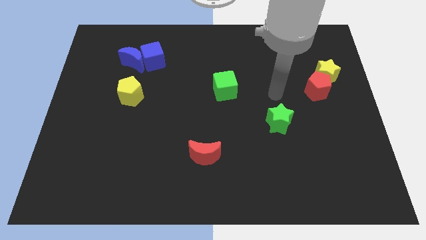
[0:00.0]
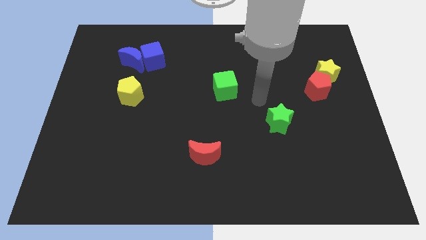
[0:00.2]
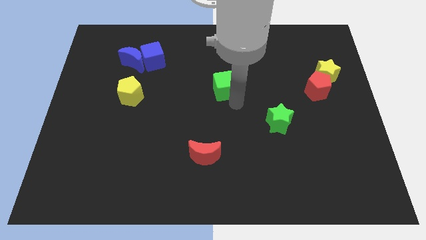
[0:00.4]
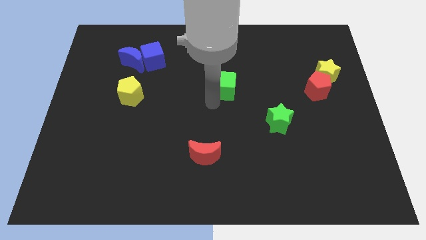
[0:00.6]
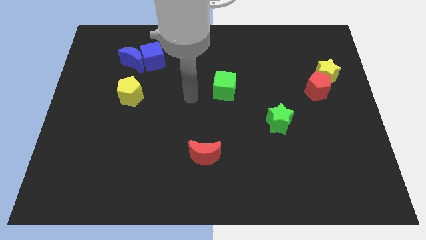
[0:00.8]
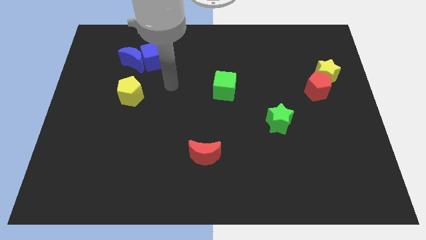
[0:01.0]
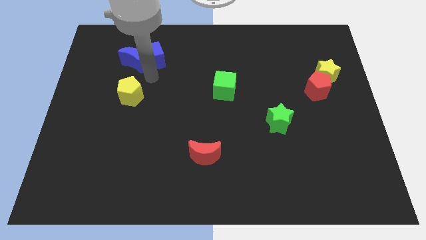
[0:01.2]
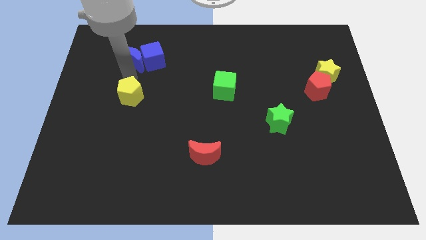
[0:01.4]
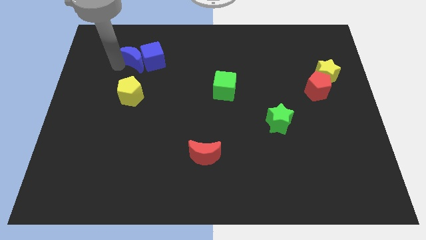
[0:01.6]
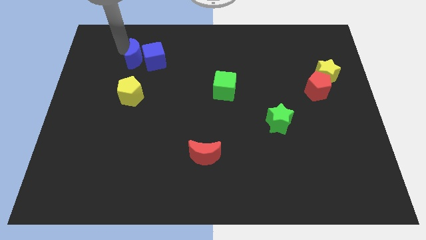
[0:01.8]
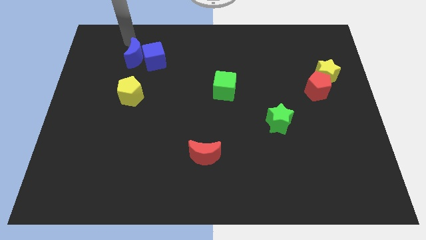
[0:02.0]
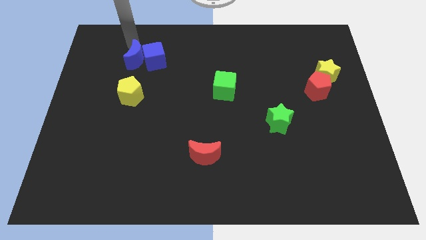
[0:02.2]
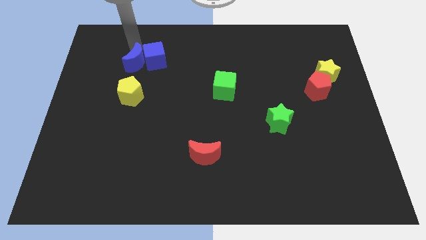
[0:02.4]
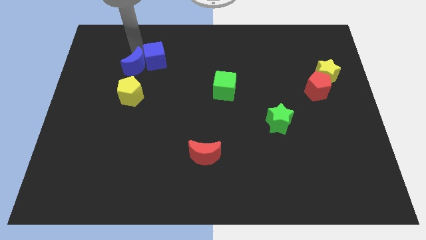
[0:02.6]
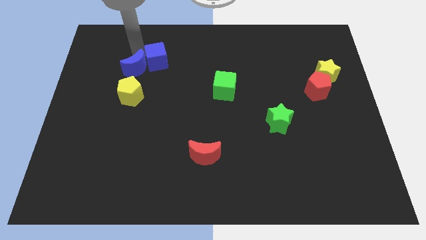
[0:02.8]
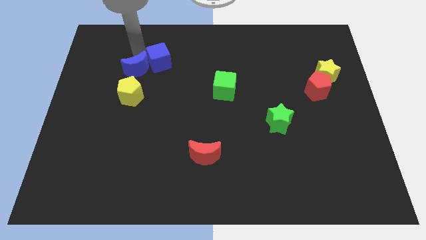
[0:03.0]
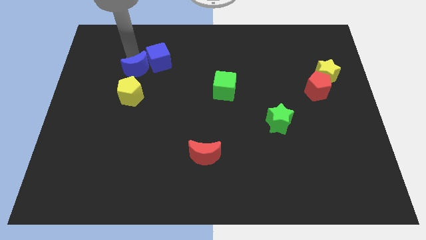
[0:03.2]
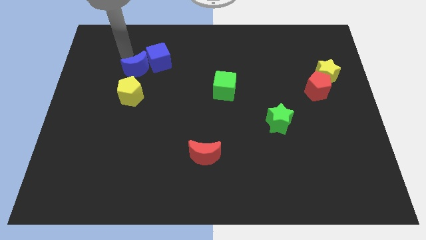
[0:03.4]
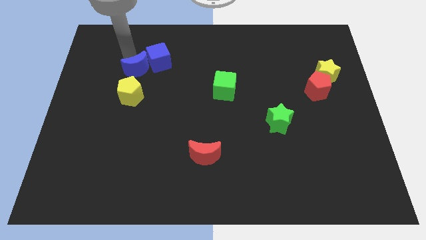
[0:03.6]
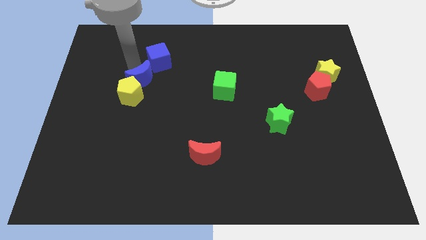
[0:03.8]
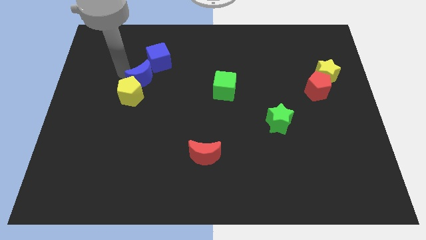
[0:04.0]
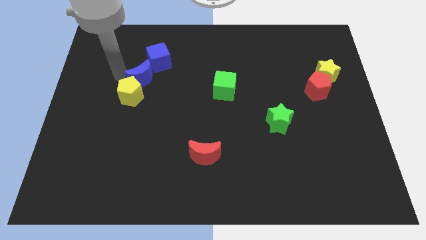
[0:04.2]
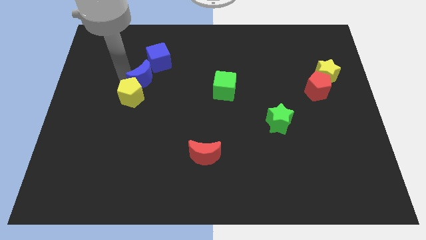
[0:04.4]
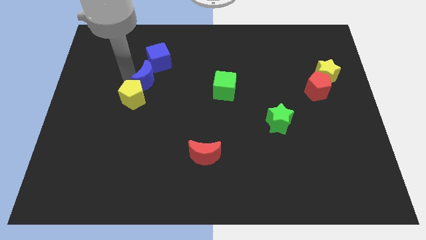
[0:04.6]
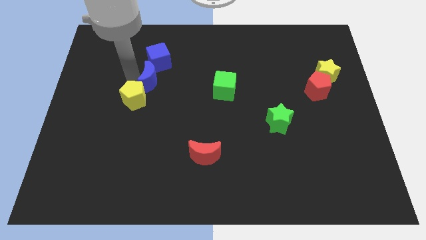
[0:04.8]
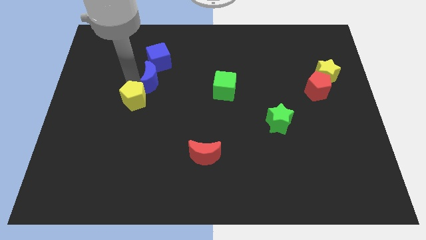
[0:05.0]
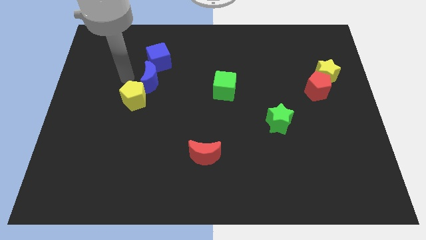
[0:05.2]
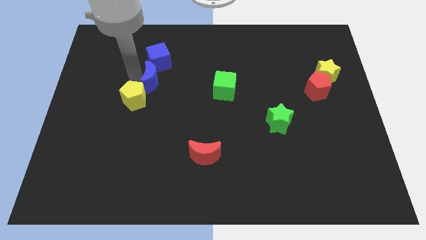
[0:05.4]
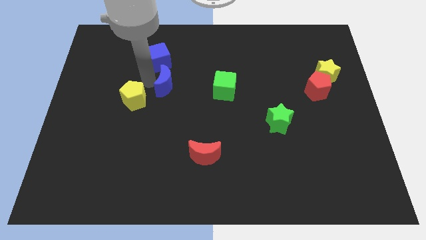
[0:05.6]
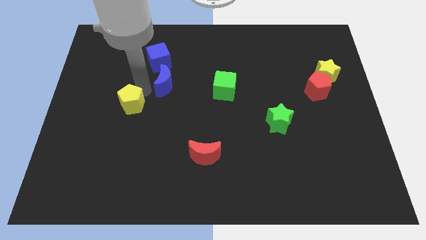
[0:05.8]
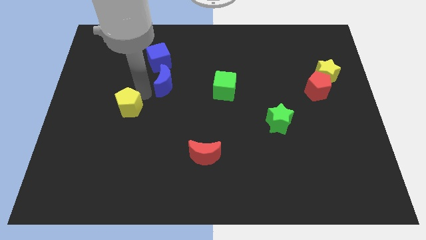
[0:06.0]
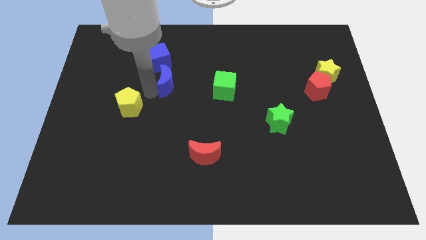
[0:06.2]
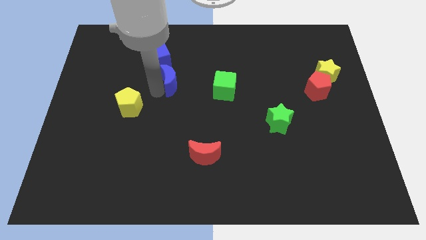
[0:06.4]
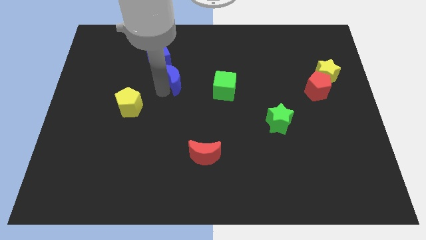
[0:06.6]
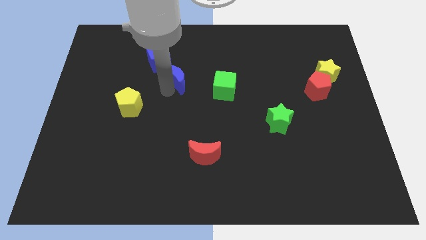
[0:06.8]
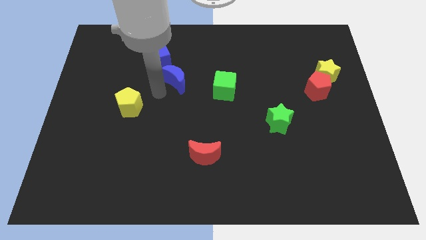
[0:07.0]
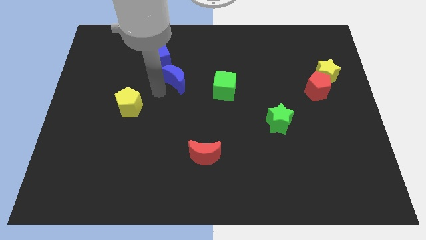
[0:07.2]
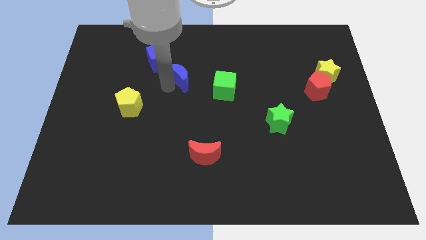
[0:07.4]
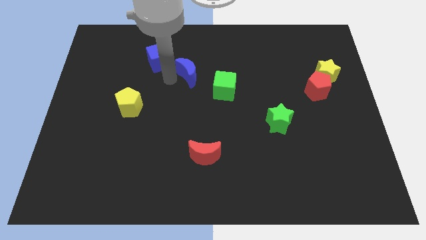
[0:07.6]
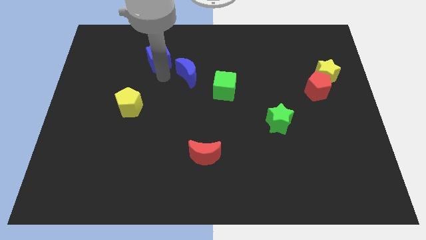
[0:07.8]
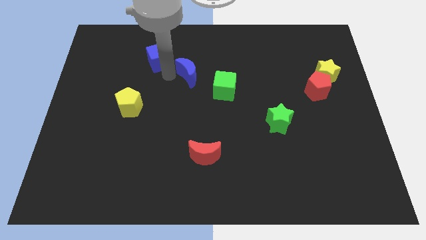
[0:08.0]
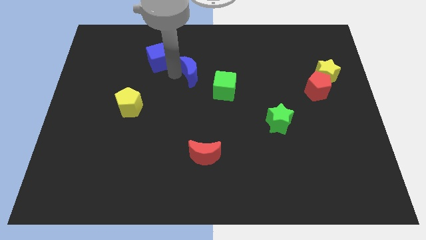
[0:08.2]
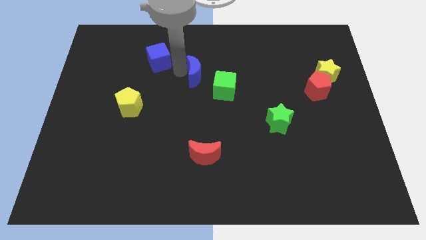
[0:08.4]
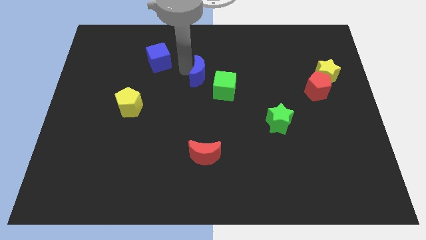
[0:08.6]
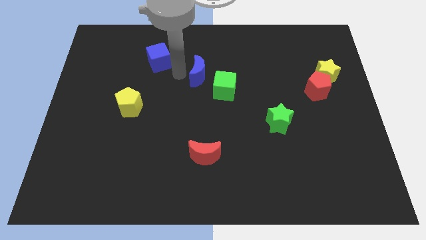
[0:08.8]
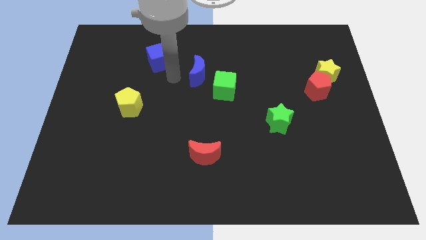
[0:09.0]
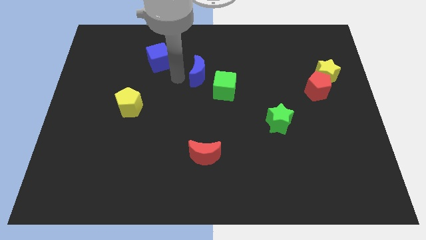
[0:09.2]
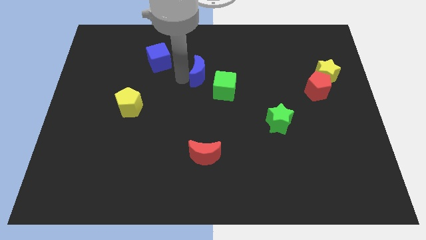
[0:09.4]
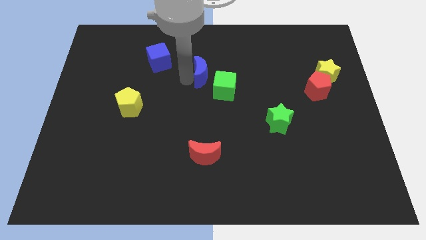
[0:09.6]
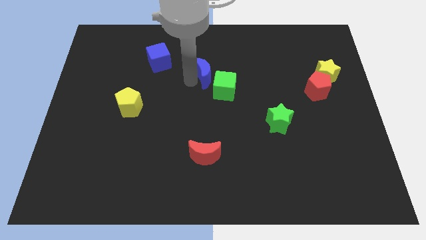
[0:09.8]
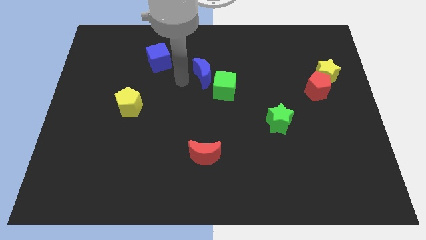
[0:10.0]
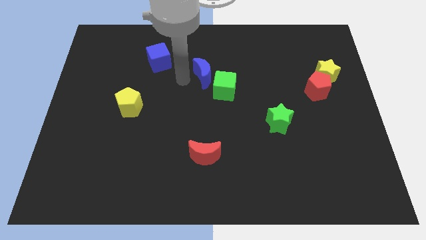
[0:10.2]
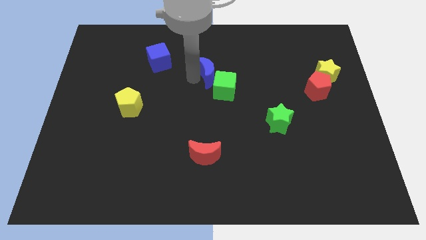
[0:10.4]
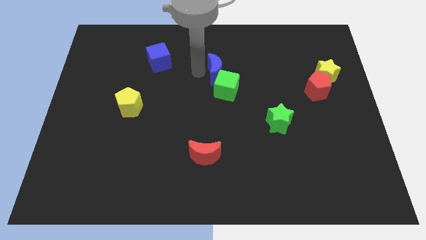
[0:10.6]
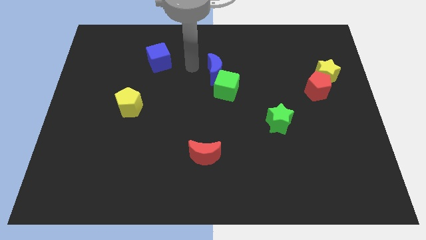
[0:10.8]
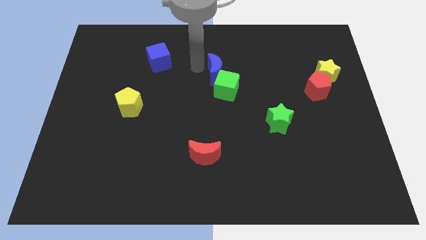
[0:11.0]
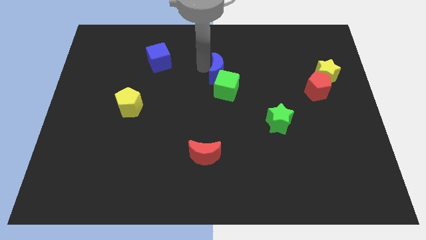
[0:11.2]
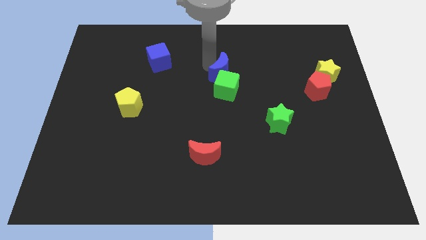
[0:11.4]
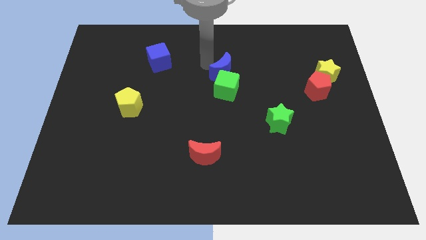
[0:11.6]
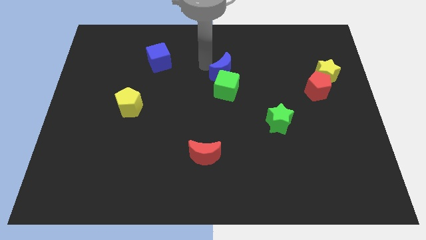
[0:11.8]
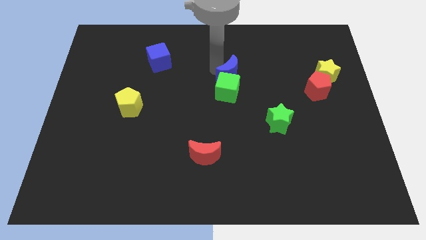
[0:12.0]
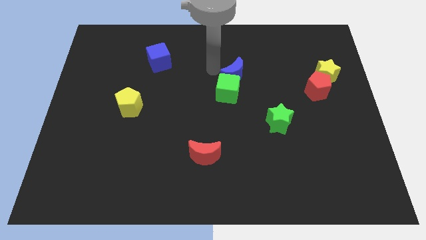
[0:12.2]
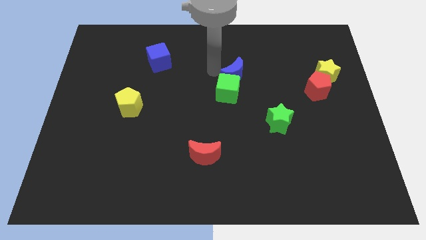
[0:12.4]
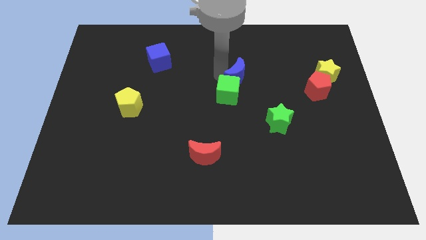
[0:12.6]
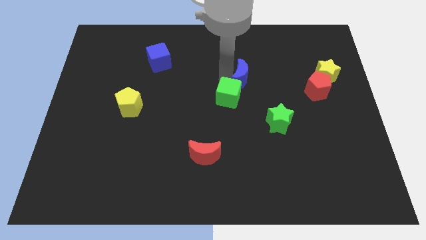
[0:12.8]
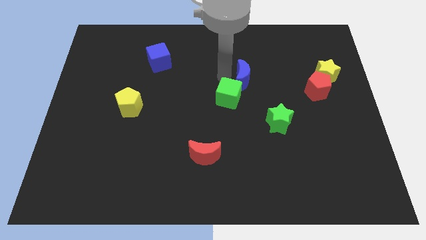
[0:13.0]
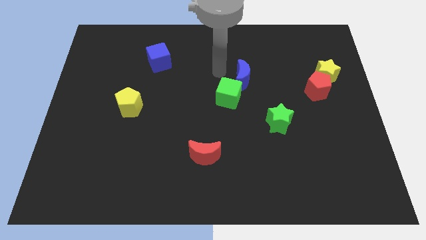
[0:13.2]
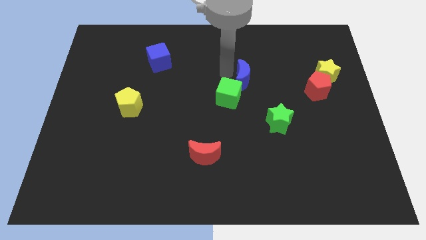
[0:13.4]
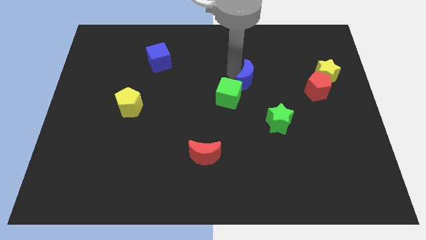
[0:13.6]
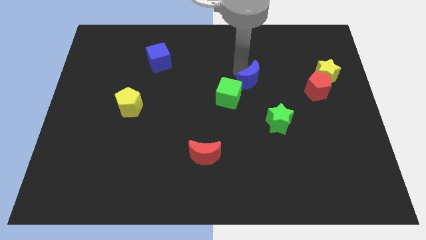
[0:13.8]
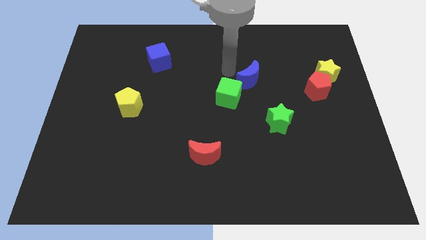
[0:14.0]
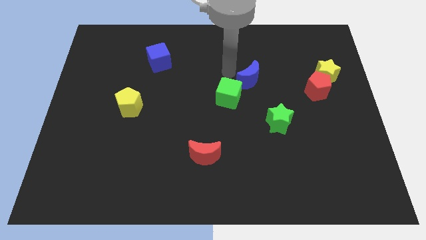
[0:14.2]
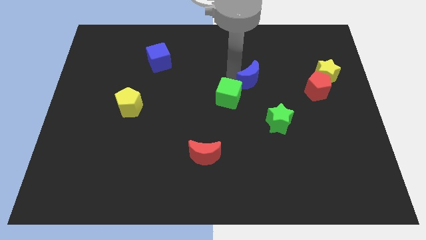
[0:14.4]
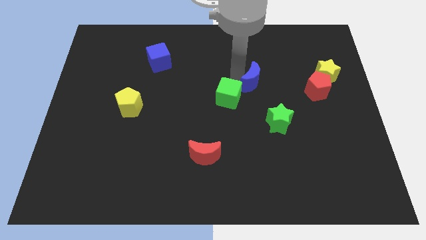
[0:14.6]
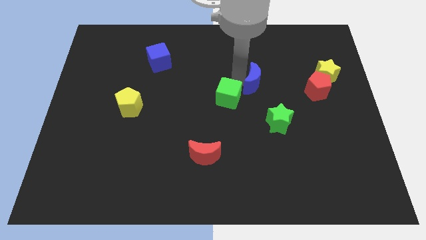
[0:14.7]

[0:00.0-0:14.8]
put the blue moon to the left side of the red pentagon

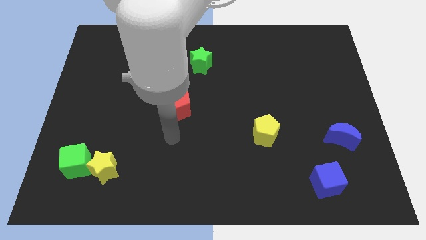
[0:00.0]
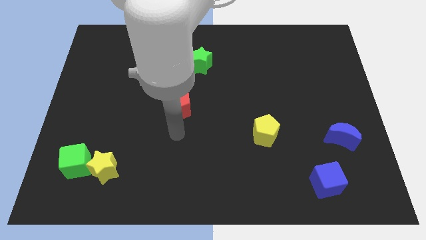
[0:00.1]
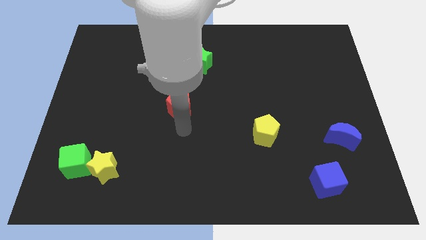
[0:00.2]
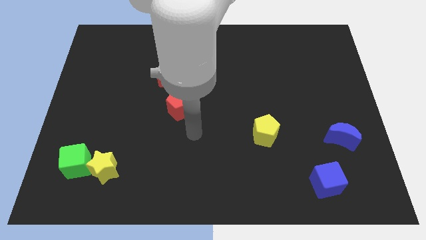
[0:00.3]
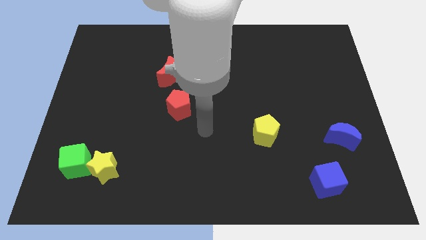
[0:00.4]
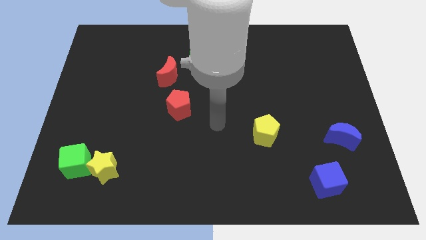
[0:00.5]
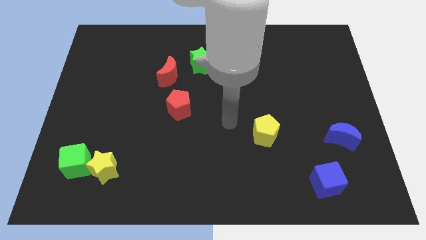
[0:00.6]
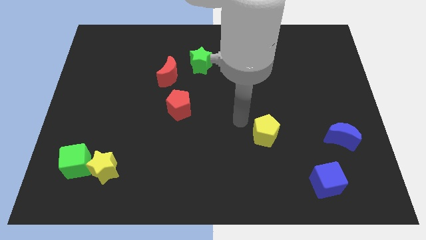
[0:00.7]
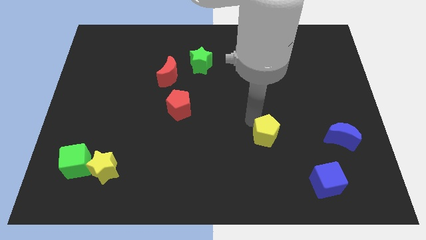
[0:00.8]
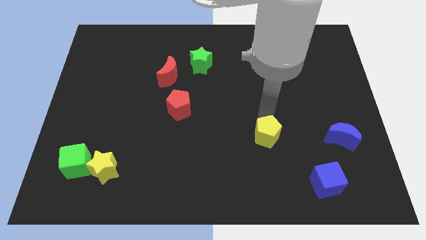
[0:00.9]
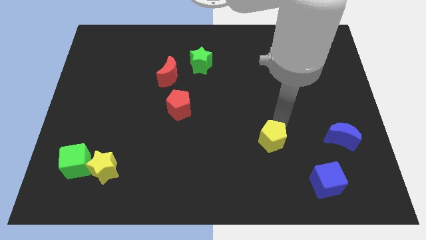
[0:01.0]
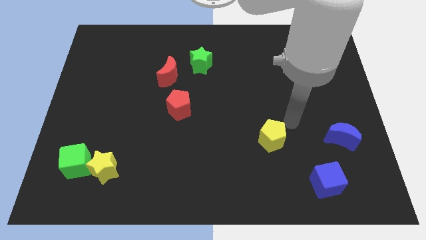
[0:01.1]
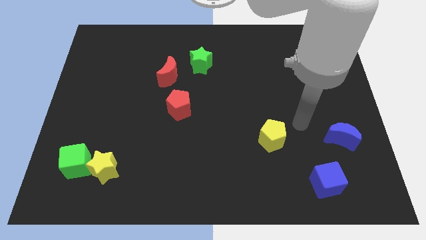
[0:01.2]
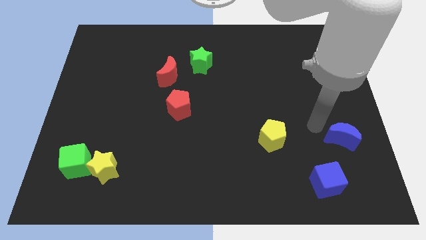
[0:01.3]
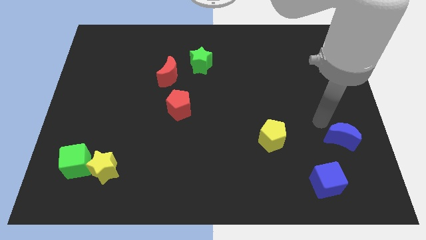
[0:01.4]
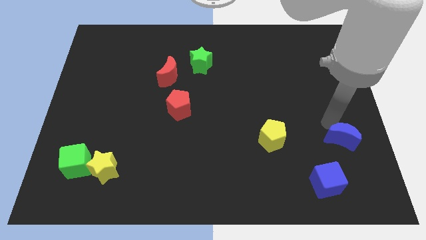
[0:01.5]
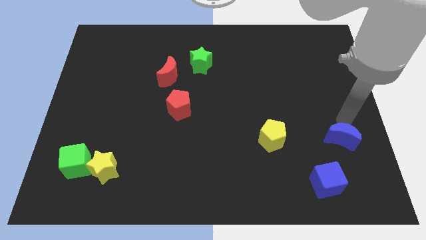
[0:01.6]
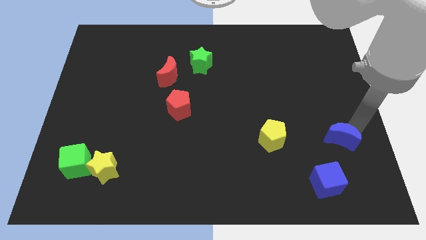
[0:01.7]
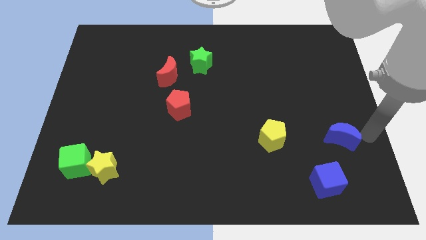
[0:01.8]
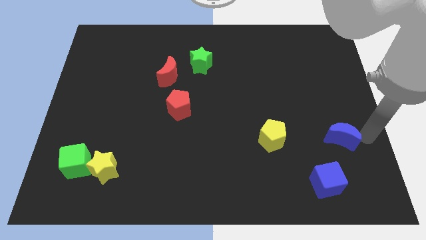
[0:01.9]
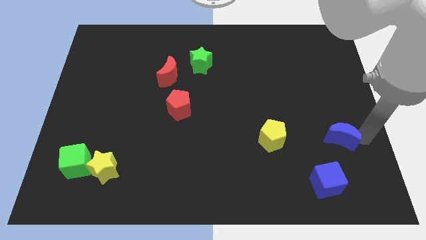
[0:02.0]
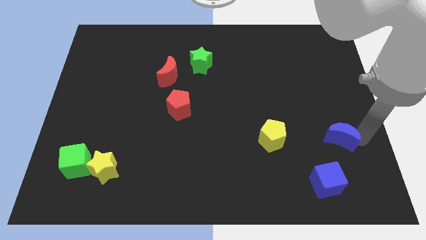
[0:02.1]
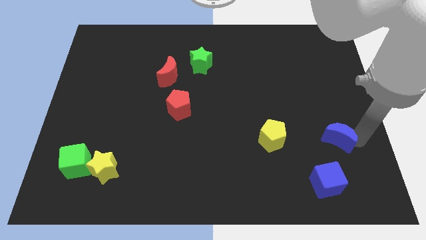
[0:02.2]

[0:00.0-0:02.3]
put the blue moon above the blue cube
